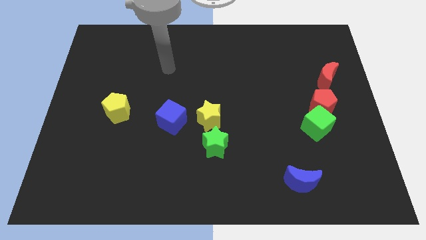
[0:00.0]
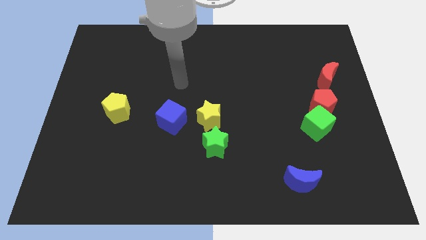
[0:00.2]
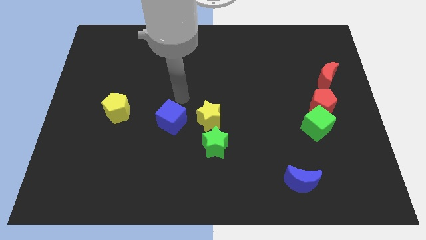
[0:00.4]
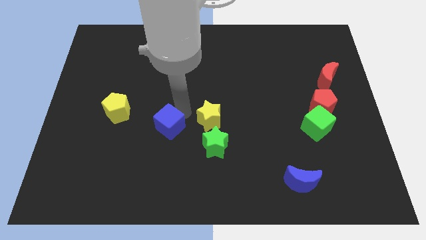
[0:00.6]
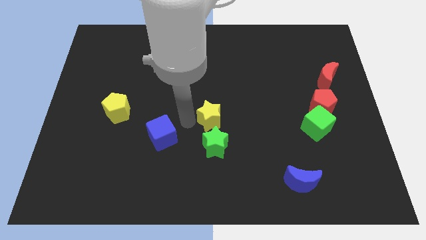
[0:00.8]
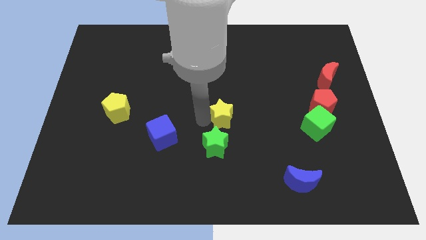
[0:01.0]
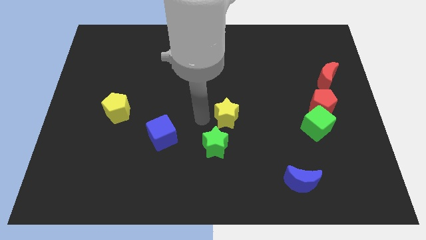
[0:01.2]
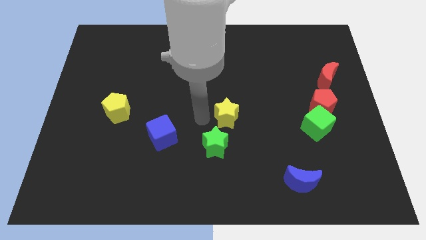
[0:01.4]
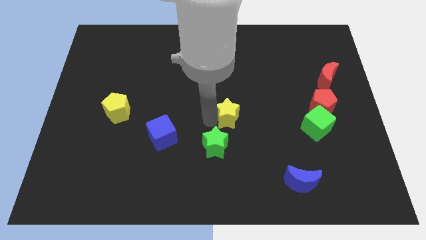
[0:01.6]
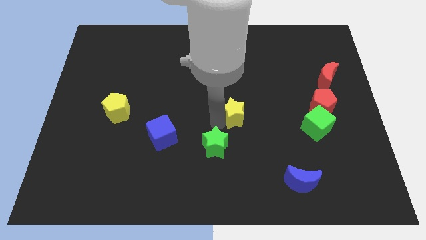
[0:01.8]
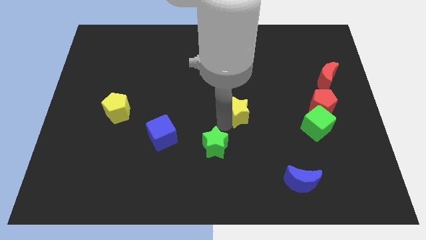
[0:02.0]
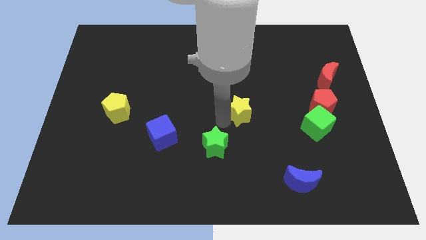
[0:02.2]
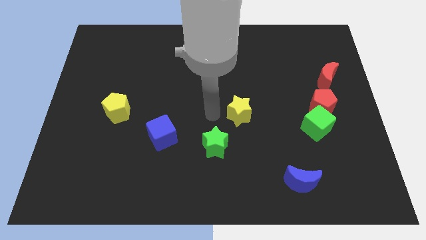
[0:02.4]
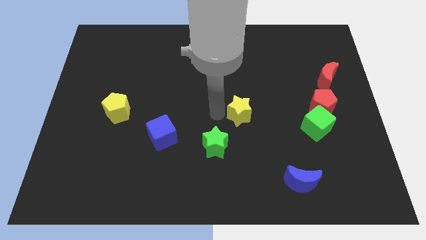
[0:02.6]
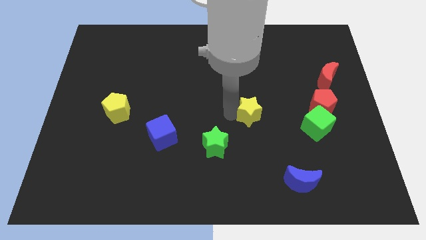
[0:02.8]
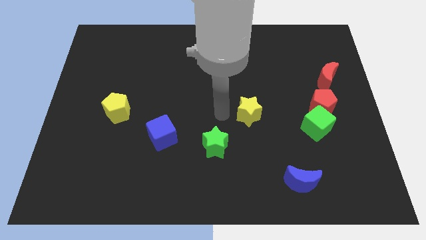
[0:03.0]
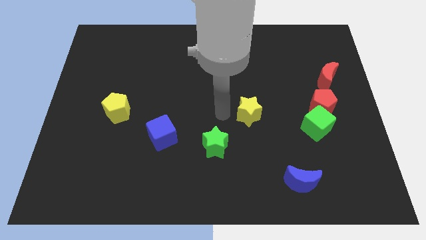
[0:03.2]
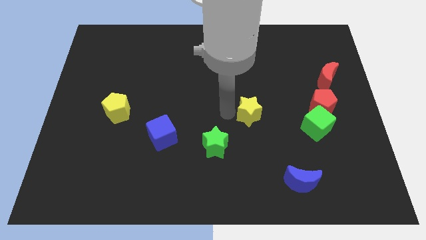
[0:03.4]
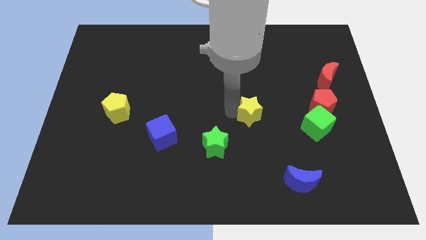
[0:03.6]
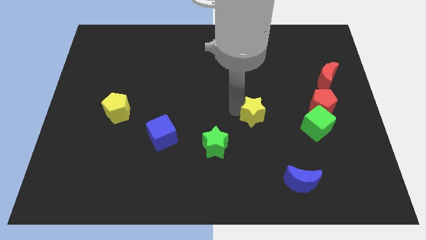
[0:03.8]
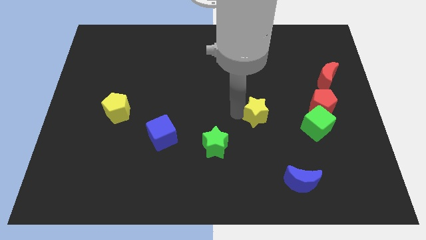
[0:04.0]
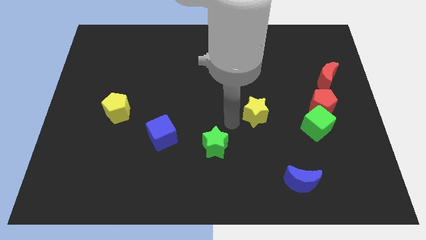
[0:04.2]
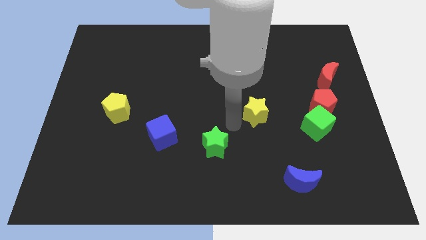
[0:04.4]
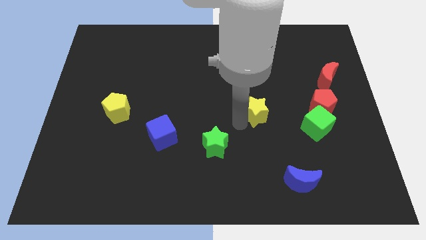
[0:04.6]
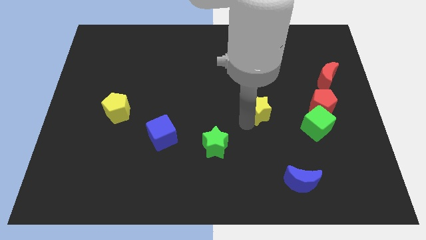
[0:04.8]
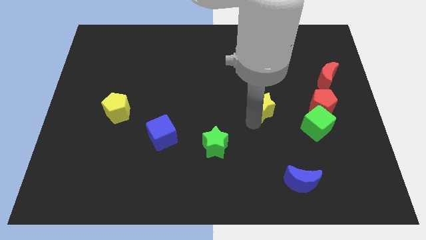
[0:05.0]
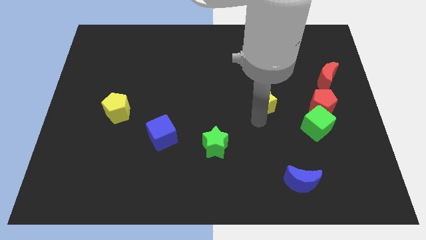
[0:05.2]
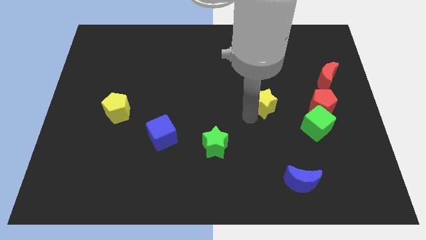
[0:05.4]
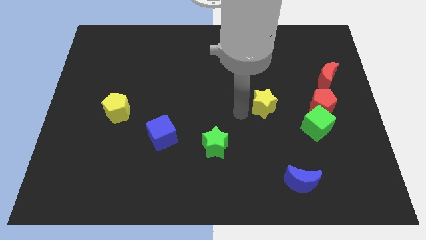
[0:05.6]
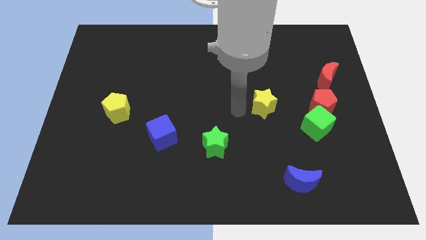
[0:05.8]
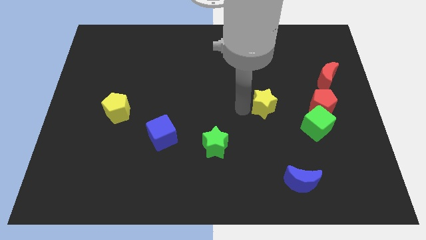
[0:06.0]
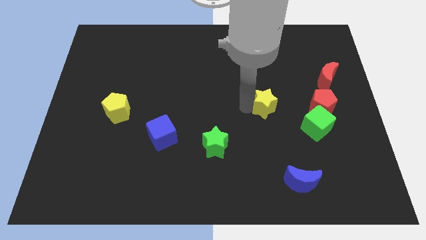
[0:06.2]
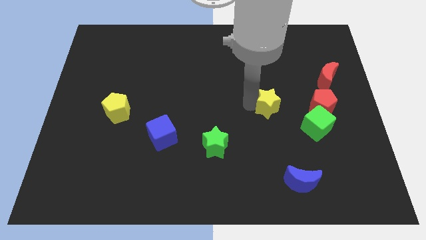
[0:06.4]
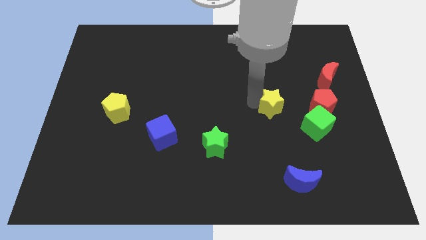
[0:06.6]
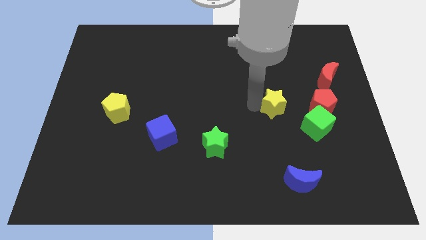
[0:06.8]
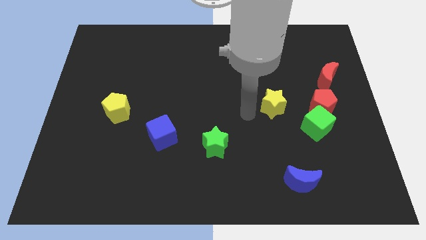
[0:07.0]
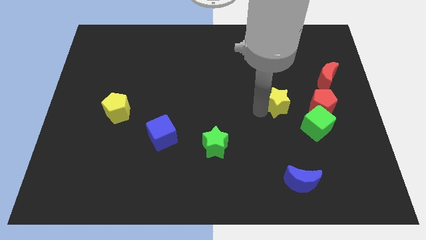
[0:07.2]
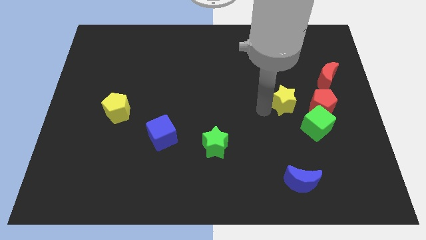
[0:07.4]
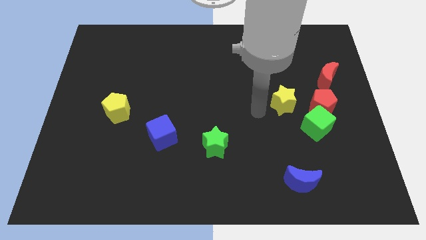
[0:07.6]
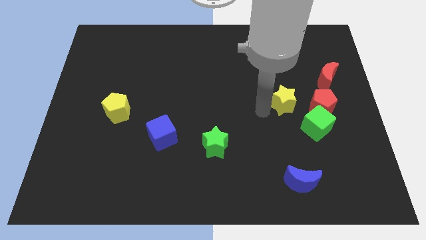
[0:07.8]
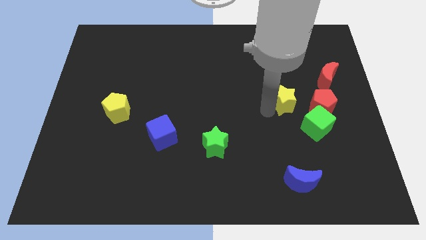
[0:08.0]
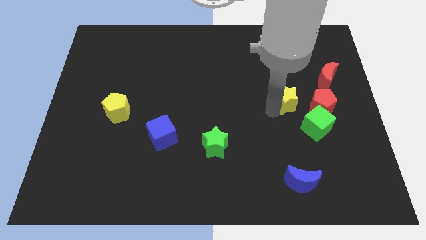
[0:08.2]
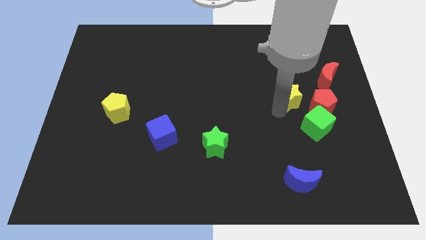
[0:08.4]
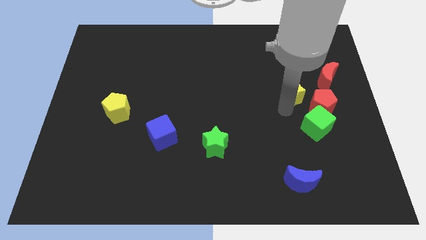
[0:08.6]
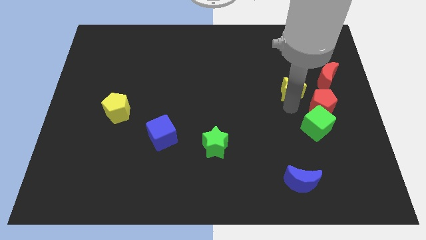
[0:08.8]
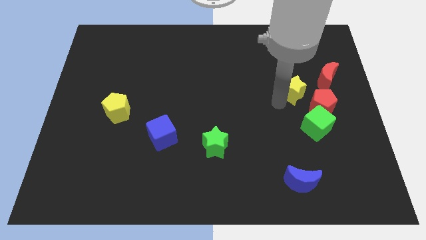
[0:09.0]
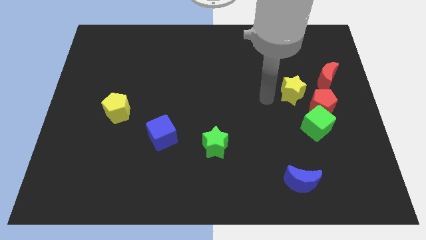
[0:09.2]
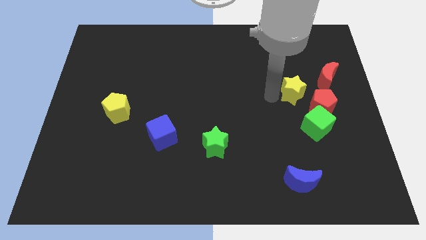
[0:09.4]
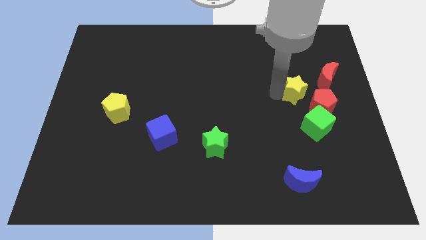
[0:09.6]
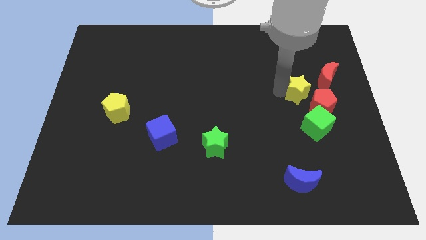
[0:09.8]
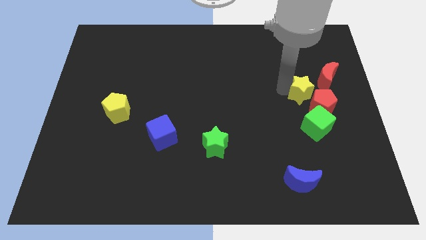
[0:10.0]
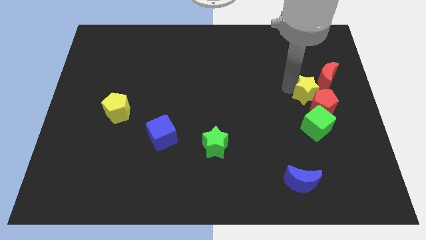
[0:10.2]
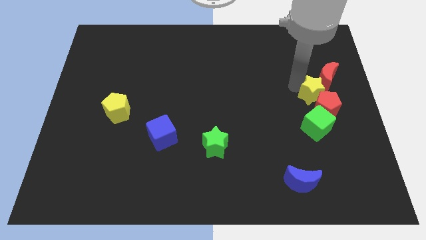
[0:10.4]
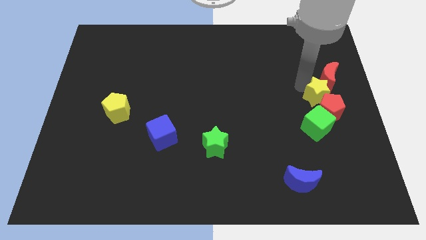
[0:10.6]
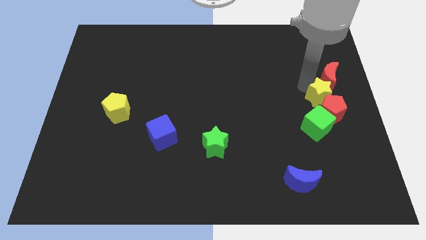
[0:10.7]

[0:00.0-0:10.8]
put the yellow star to the right side of the board
